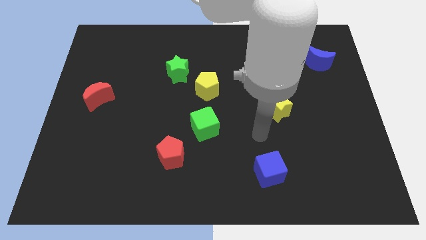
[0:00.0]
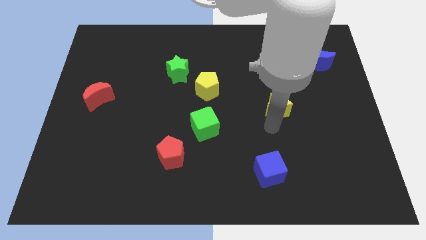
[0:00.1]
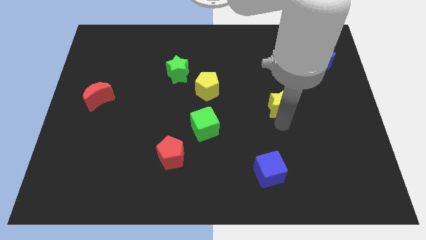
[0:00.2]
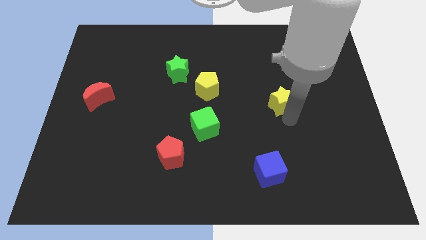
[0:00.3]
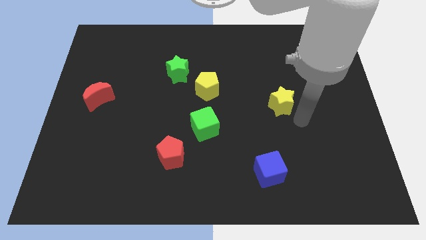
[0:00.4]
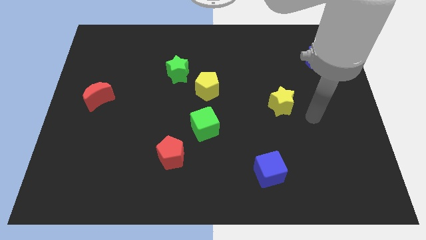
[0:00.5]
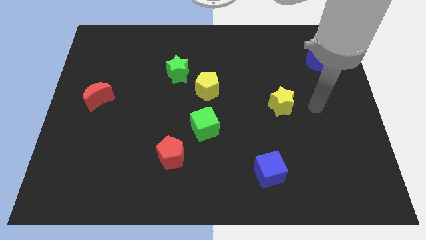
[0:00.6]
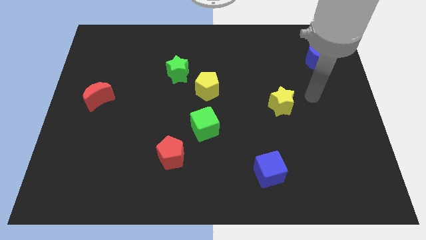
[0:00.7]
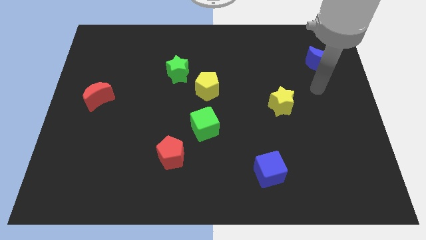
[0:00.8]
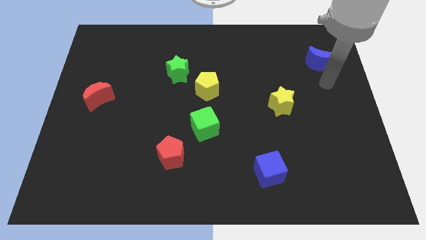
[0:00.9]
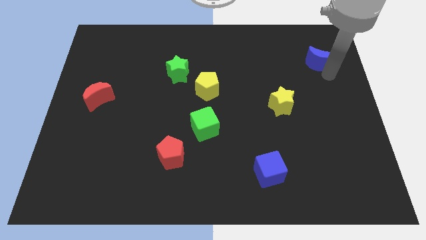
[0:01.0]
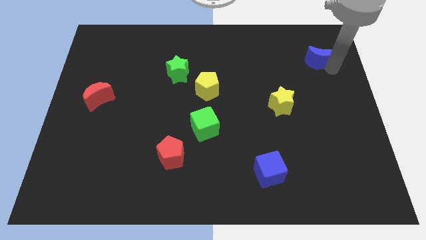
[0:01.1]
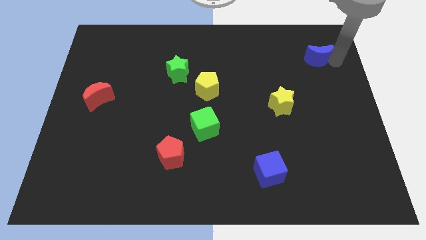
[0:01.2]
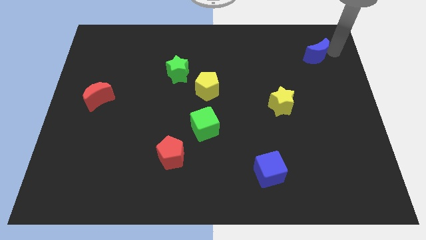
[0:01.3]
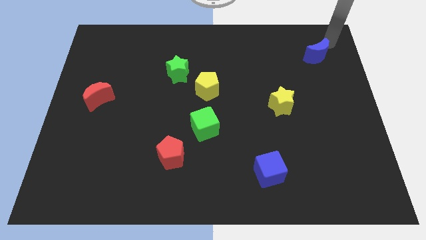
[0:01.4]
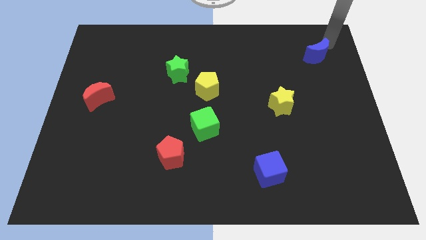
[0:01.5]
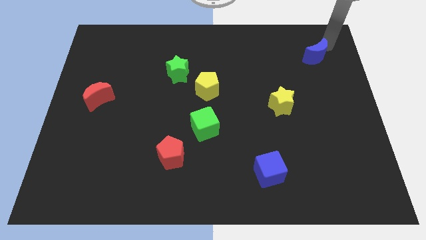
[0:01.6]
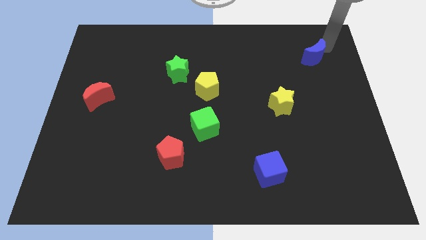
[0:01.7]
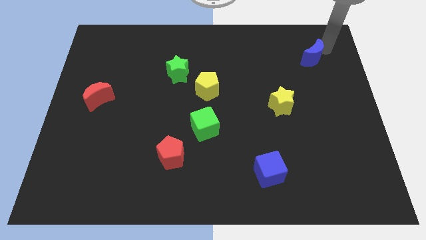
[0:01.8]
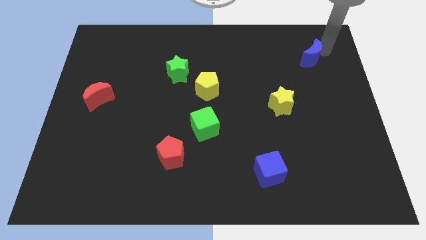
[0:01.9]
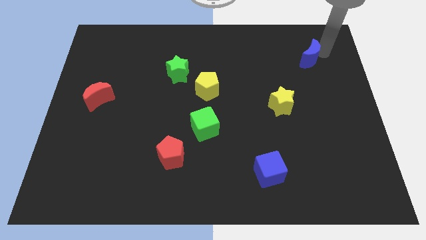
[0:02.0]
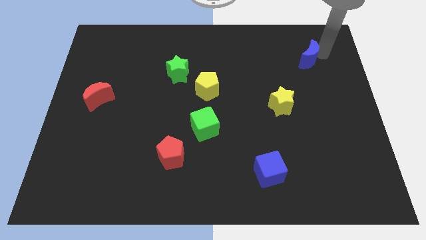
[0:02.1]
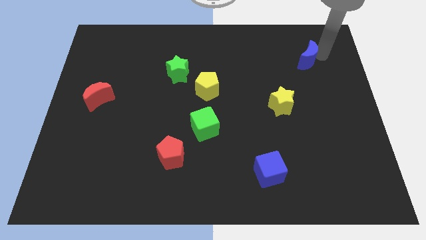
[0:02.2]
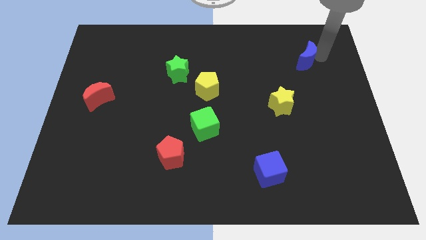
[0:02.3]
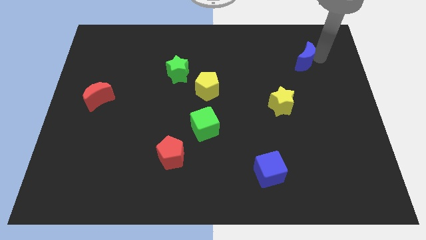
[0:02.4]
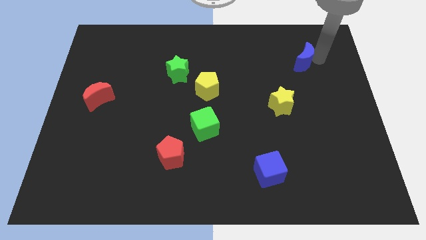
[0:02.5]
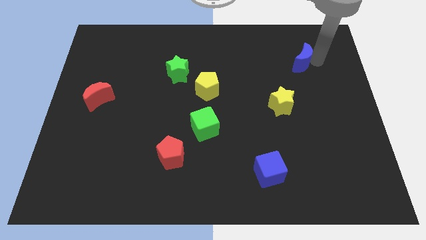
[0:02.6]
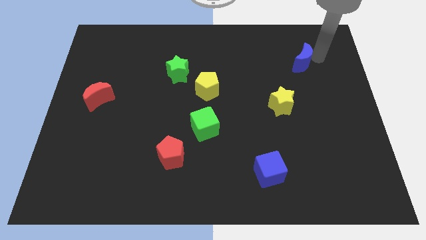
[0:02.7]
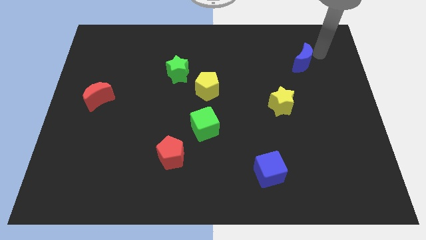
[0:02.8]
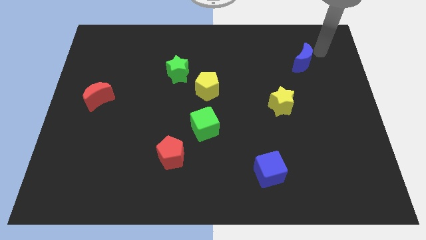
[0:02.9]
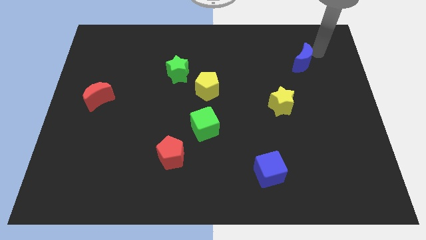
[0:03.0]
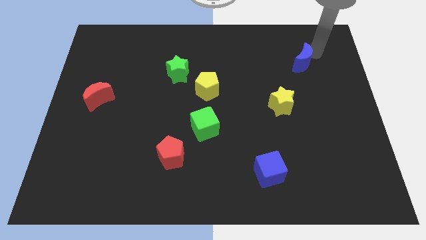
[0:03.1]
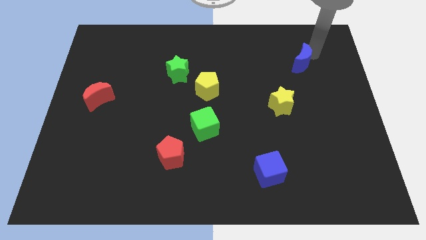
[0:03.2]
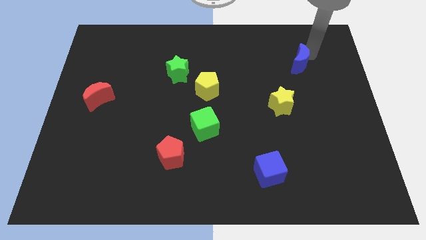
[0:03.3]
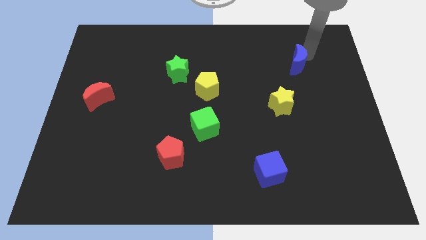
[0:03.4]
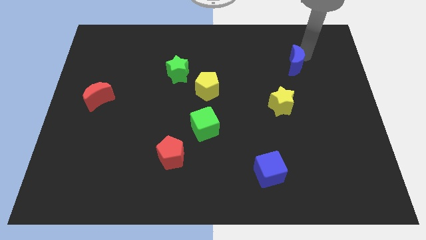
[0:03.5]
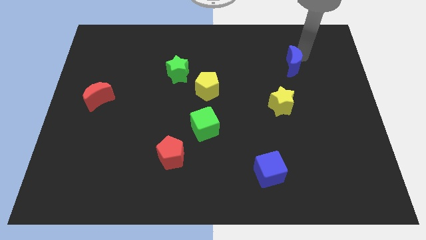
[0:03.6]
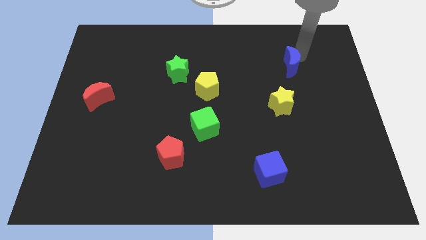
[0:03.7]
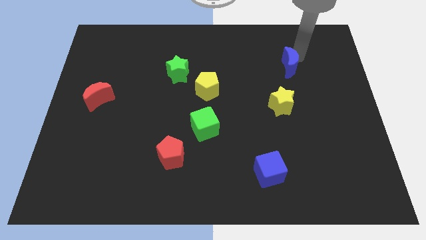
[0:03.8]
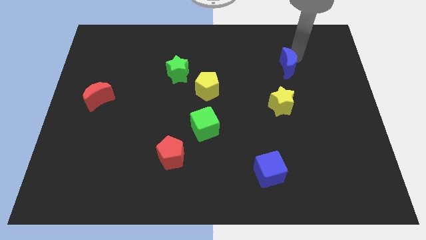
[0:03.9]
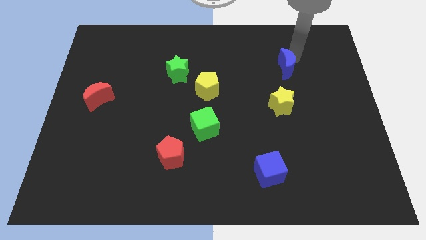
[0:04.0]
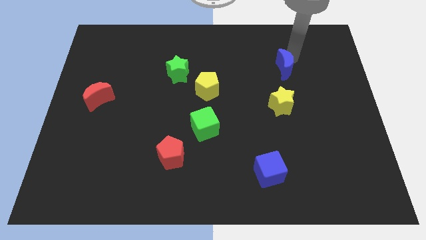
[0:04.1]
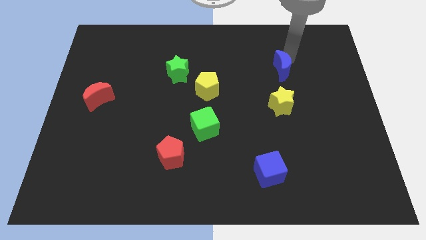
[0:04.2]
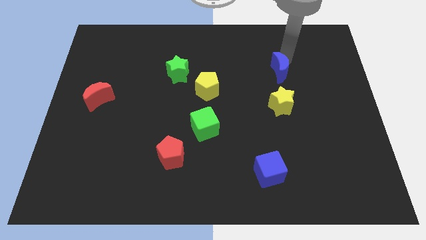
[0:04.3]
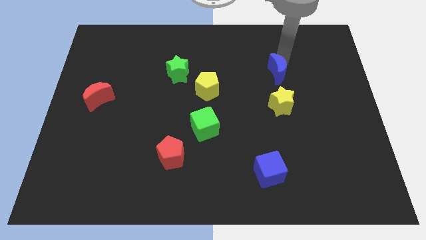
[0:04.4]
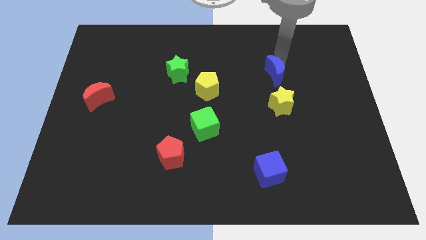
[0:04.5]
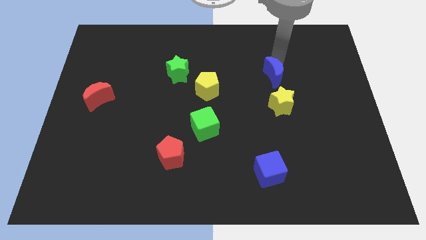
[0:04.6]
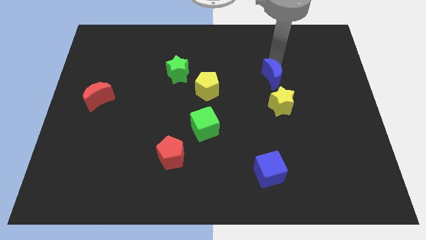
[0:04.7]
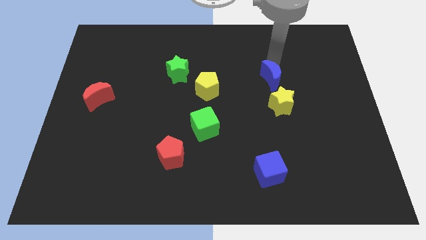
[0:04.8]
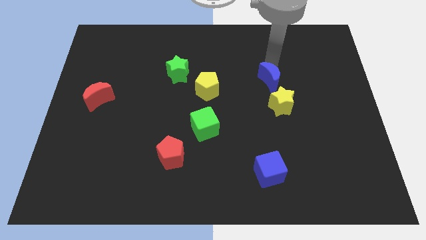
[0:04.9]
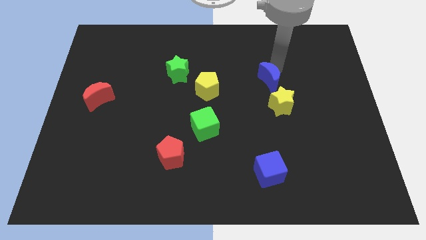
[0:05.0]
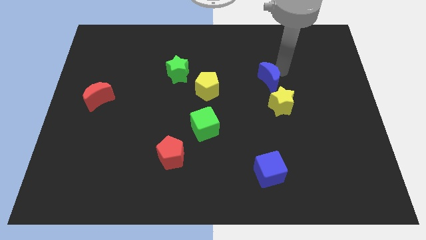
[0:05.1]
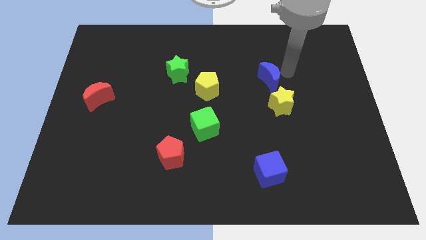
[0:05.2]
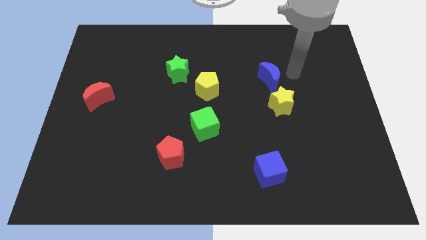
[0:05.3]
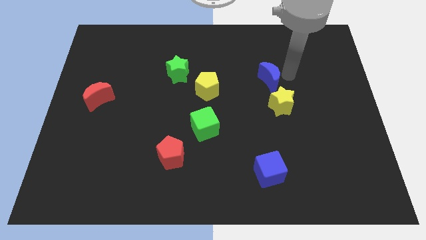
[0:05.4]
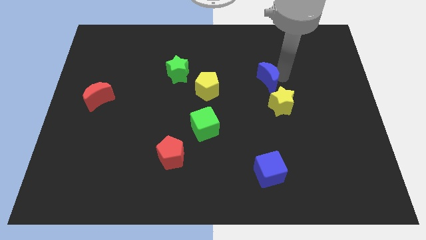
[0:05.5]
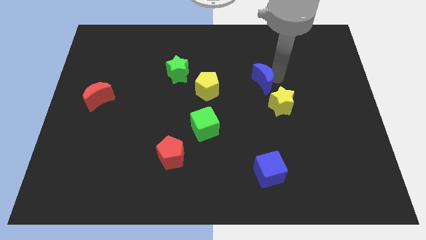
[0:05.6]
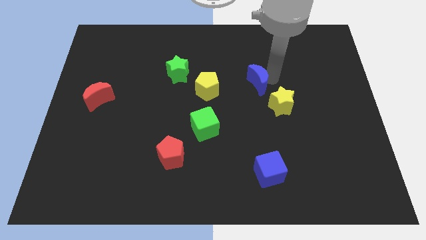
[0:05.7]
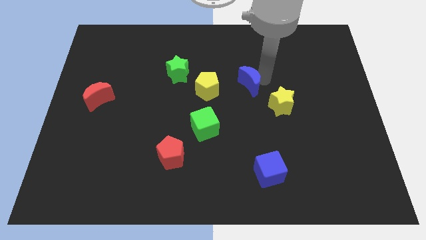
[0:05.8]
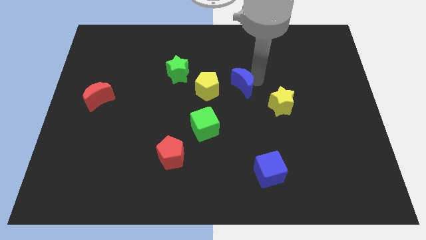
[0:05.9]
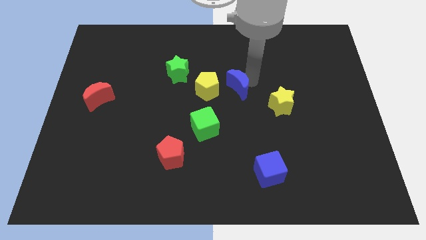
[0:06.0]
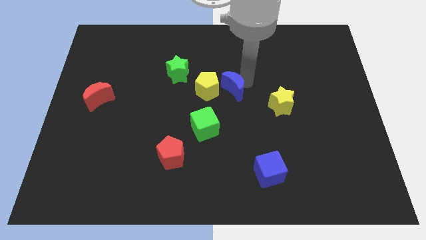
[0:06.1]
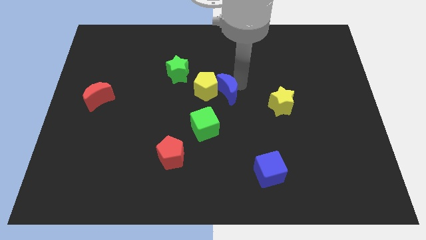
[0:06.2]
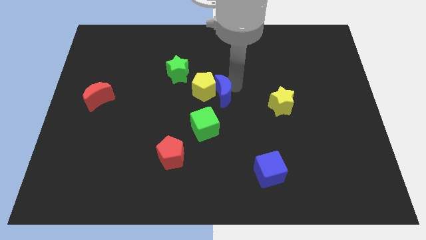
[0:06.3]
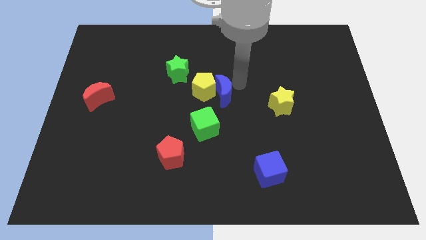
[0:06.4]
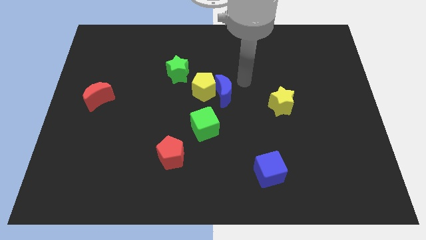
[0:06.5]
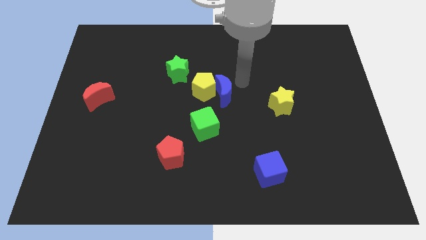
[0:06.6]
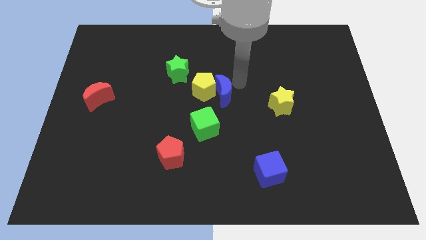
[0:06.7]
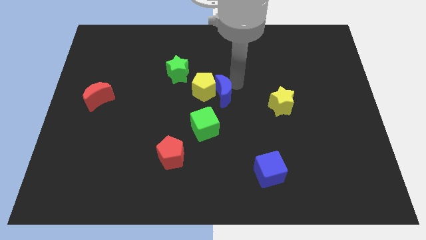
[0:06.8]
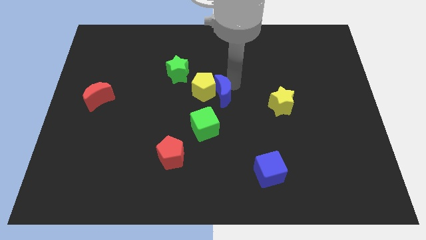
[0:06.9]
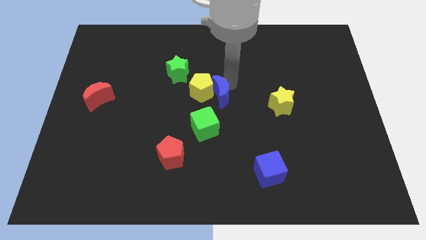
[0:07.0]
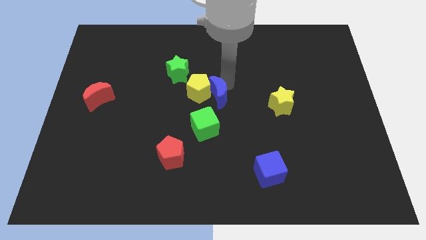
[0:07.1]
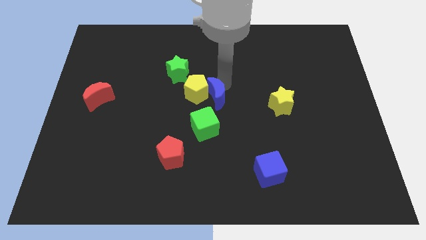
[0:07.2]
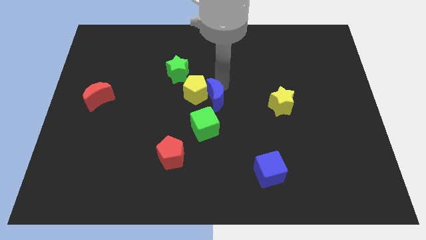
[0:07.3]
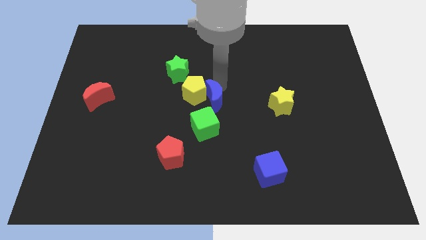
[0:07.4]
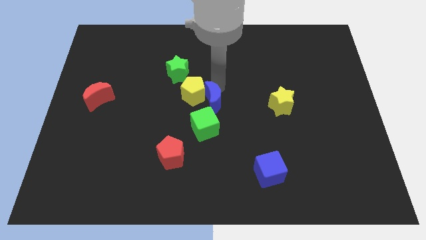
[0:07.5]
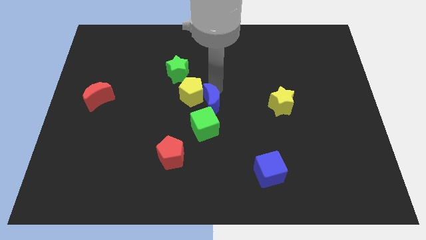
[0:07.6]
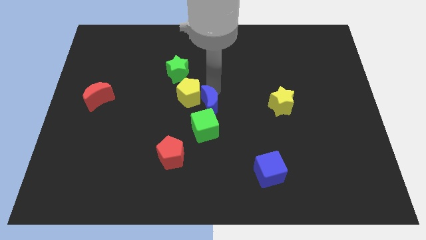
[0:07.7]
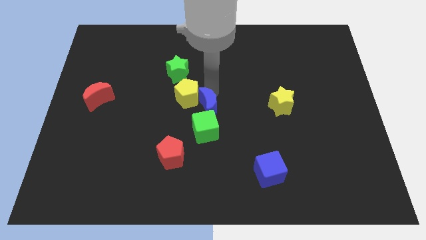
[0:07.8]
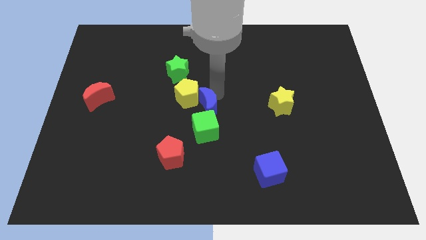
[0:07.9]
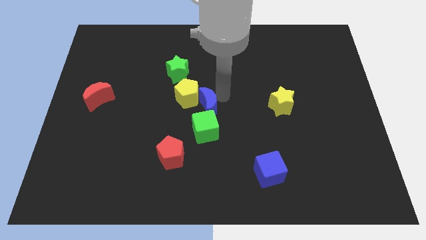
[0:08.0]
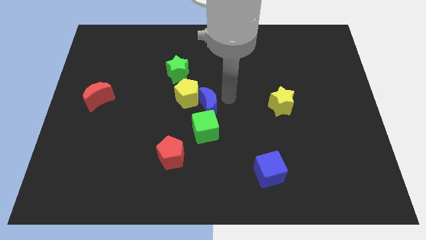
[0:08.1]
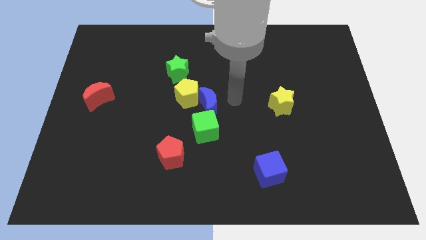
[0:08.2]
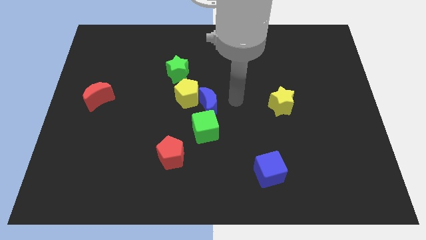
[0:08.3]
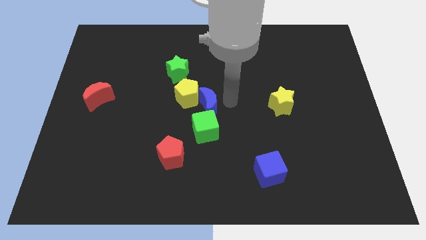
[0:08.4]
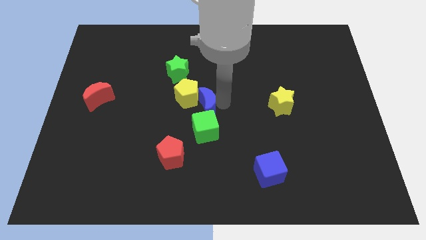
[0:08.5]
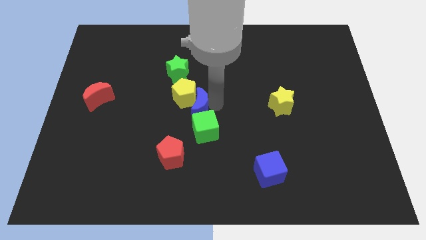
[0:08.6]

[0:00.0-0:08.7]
push the blue moon diagonally up and to the left of the green cube
